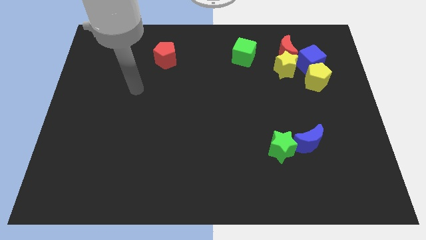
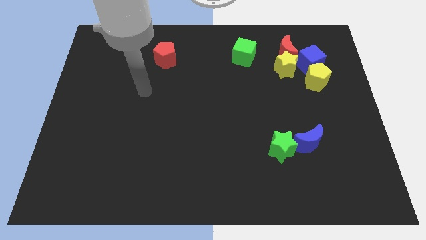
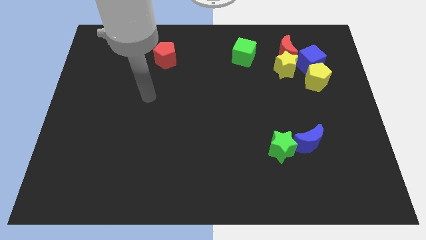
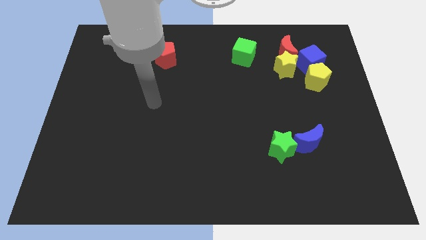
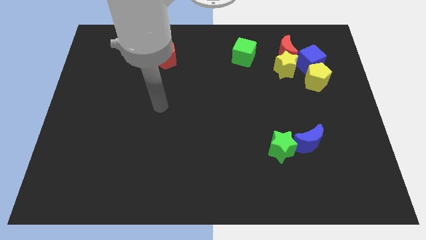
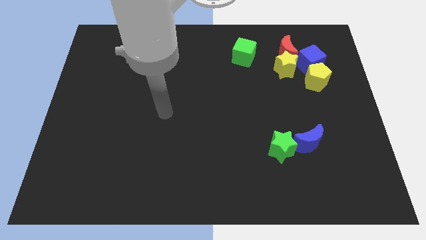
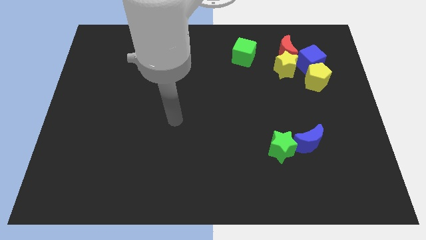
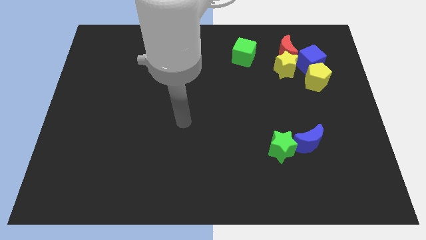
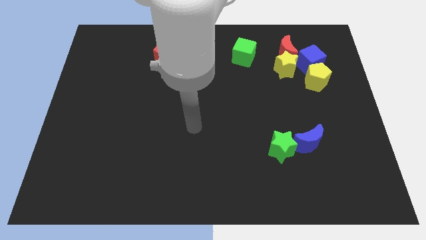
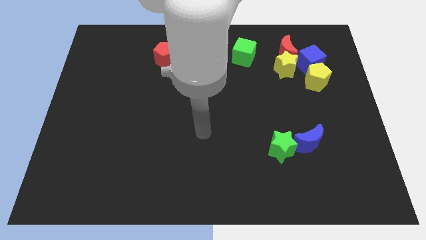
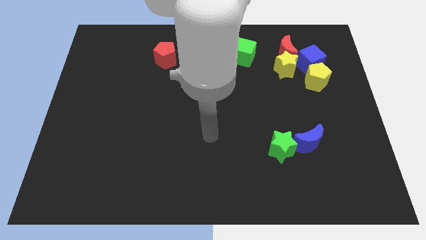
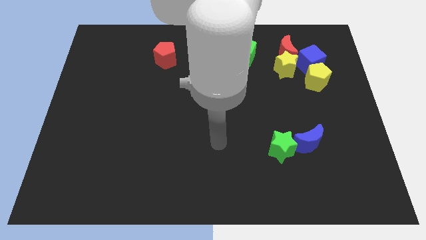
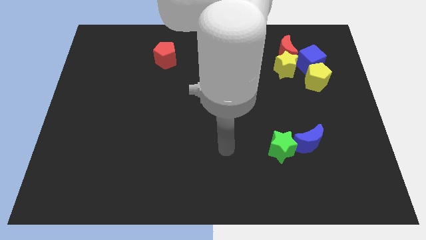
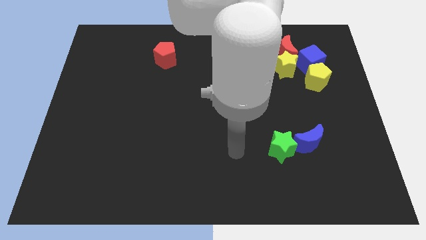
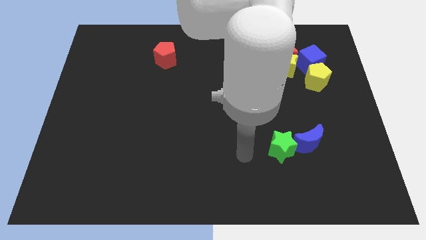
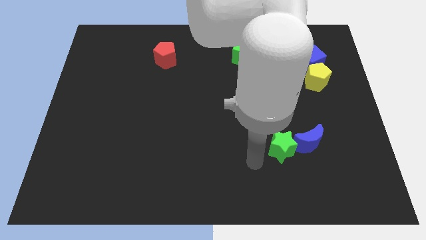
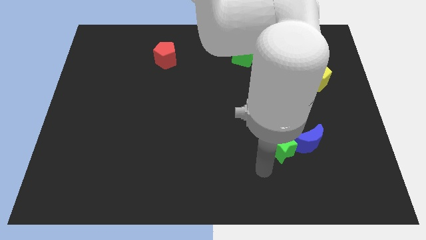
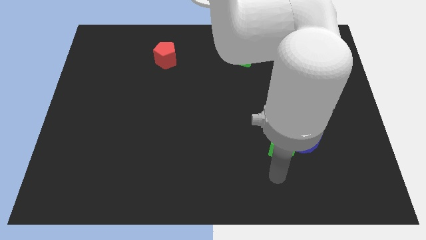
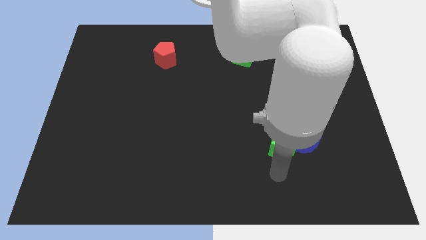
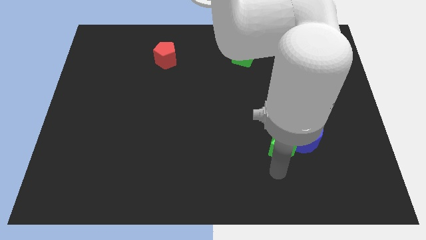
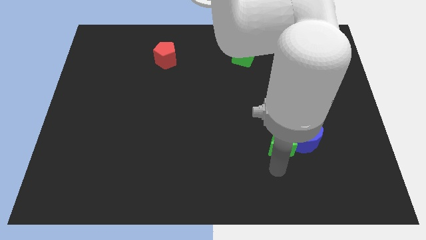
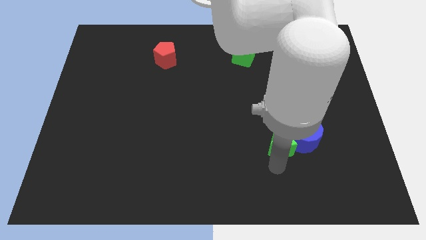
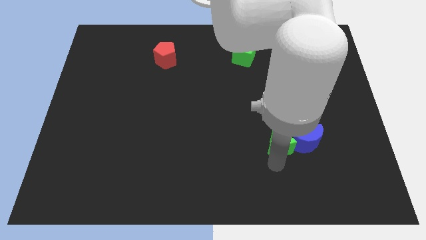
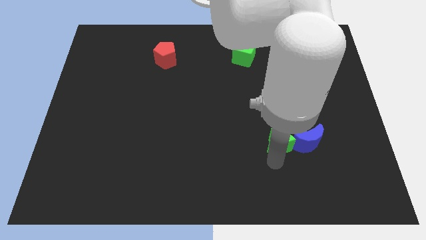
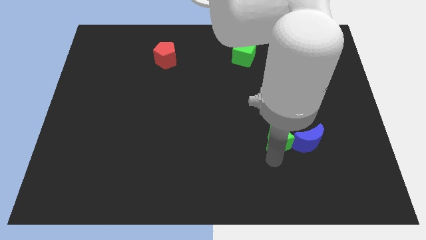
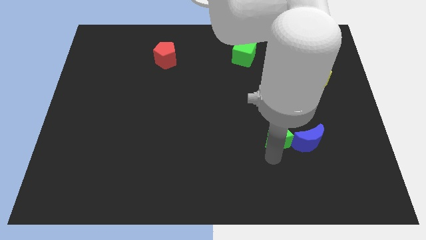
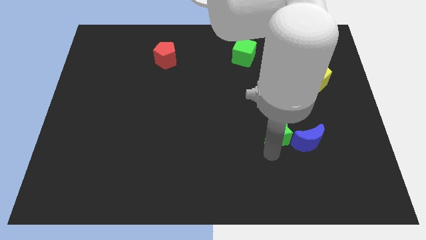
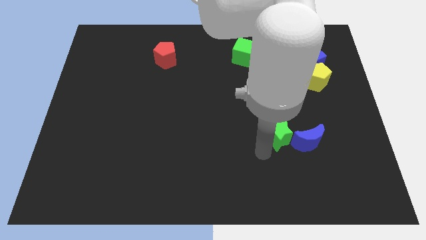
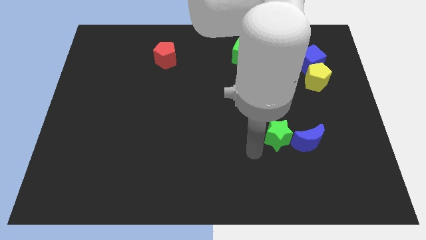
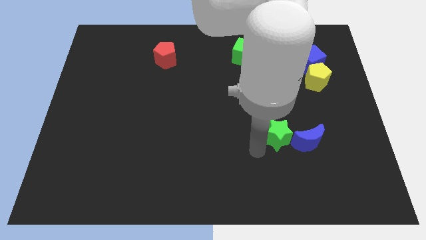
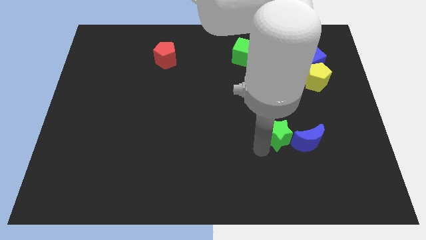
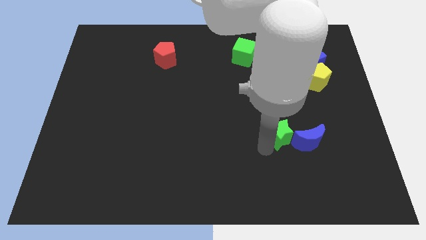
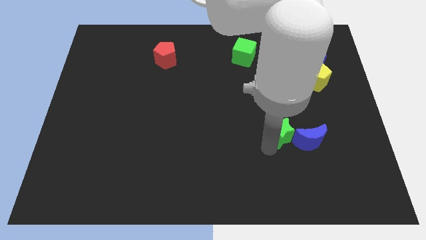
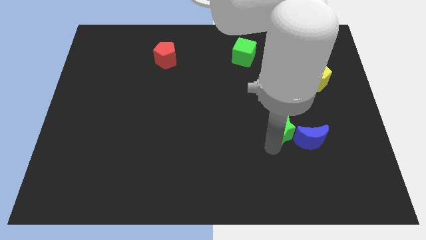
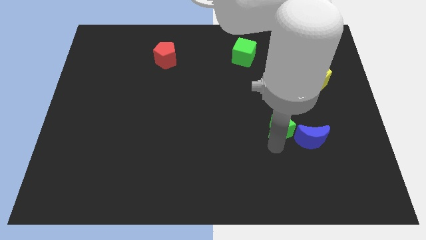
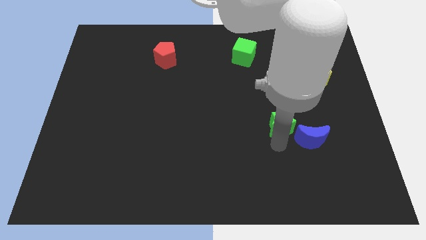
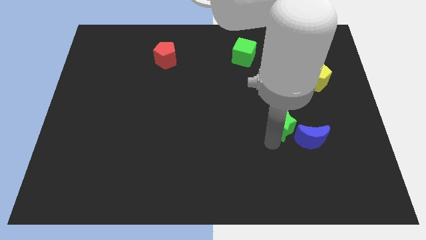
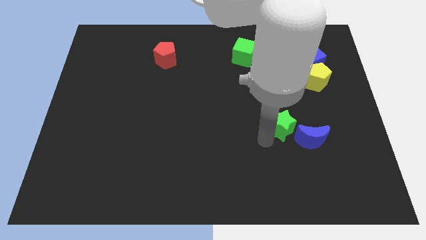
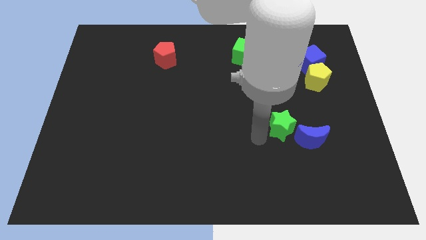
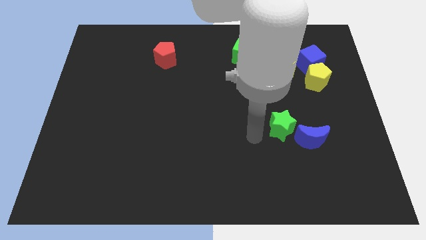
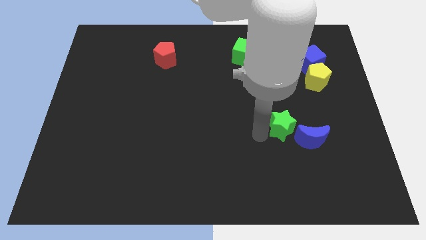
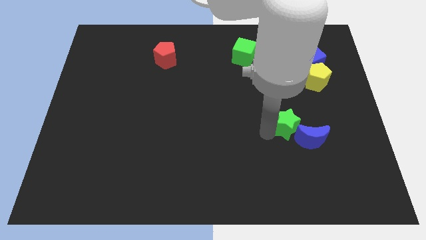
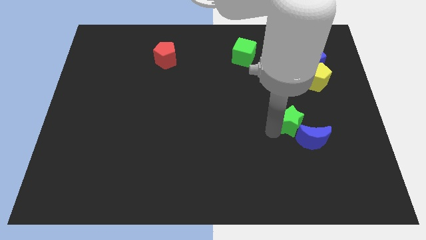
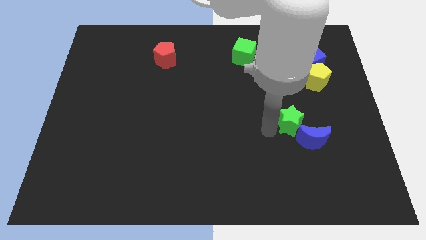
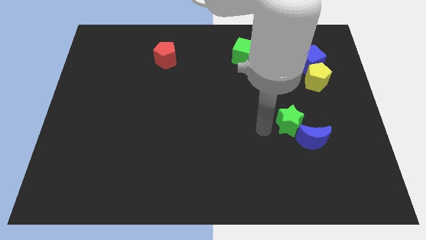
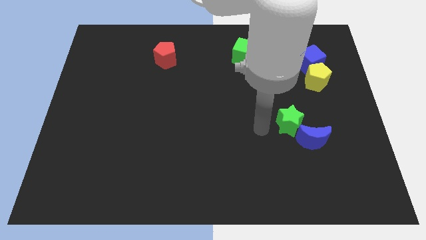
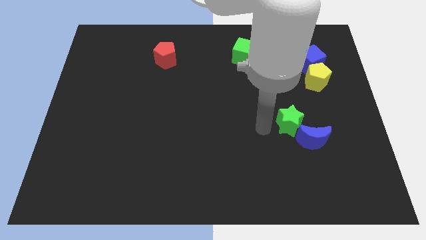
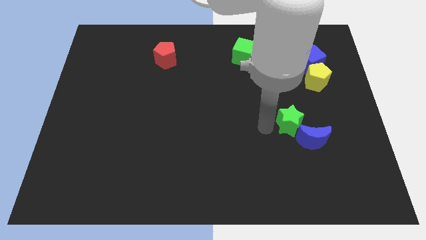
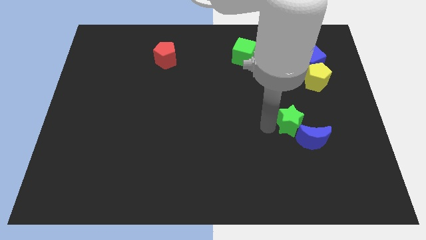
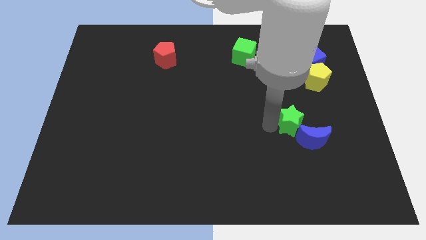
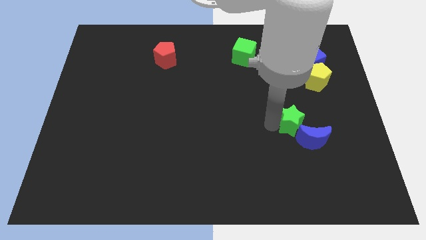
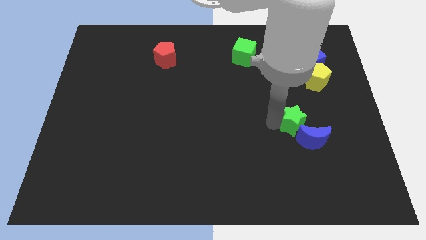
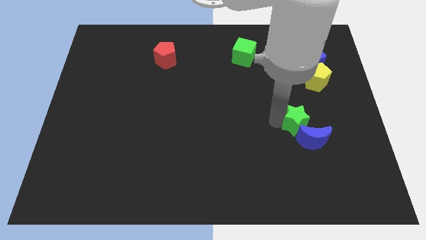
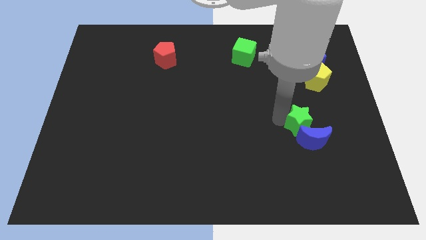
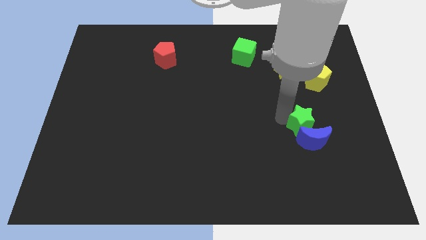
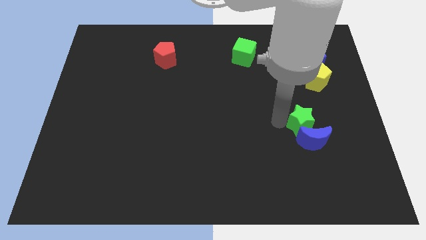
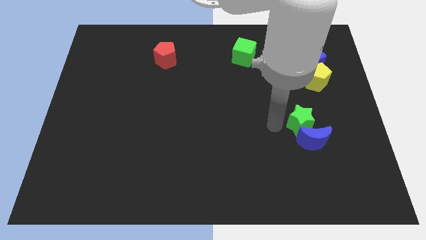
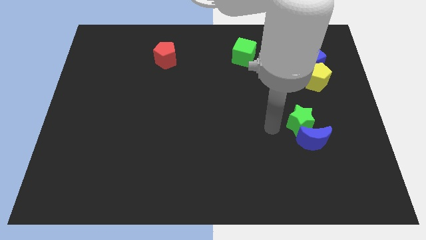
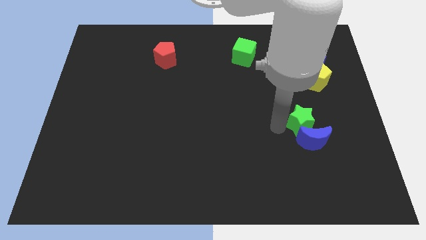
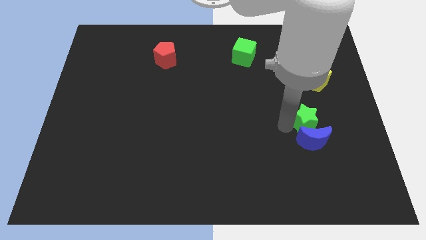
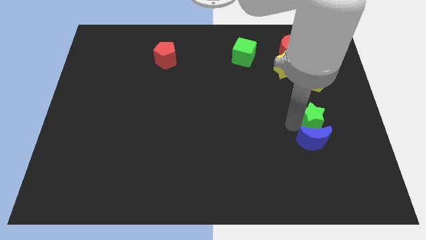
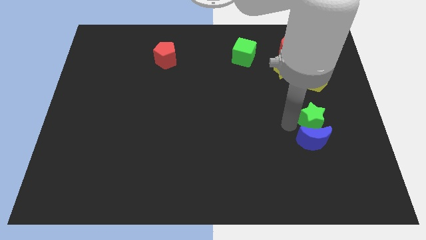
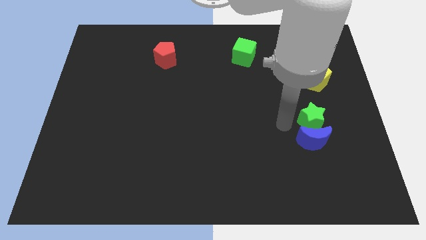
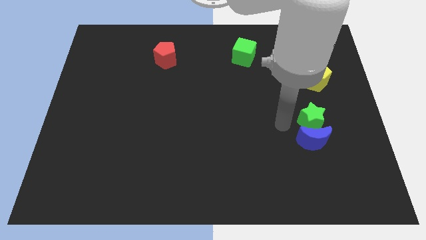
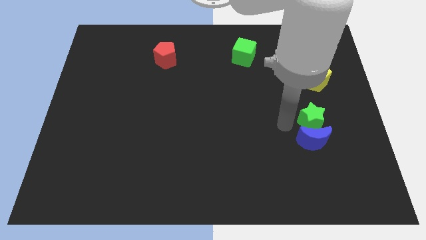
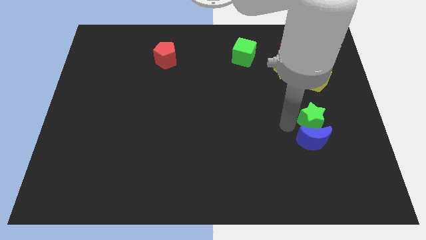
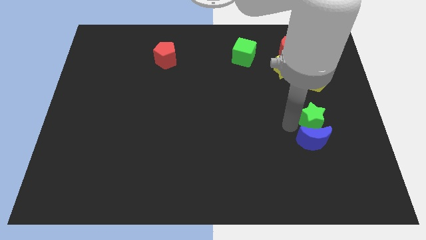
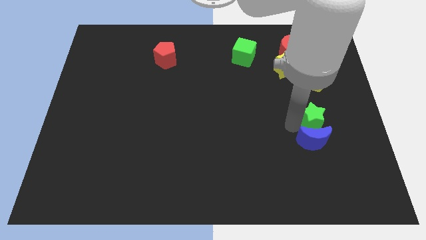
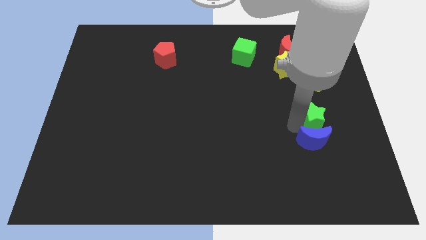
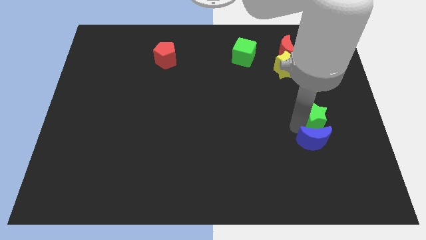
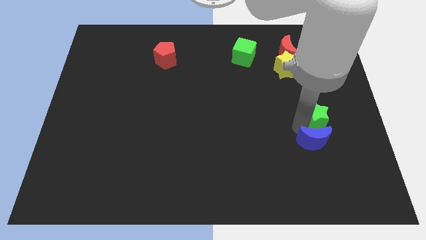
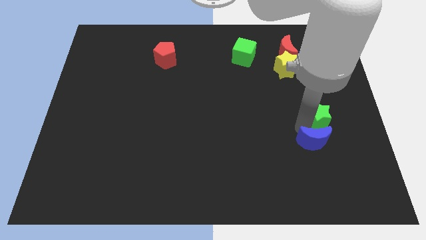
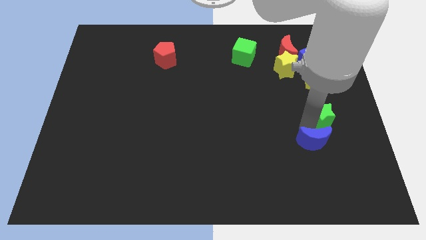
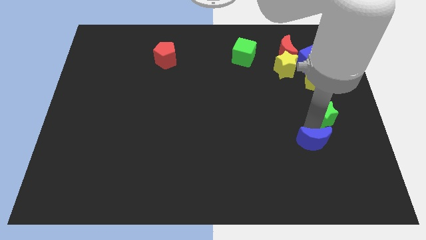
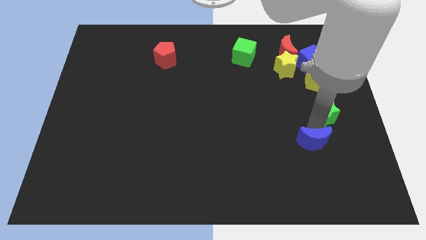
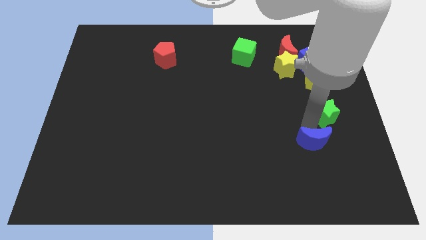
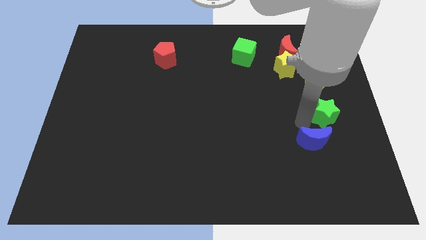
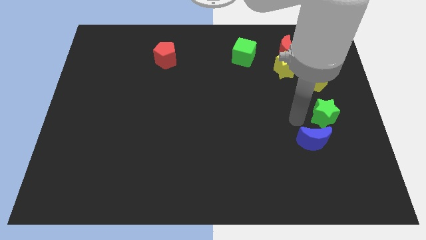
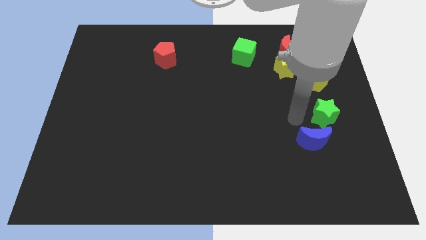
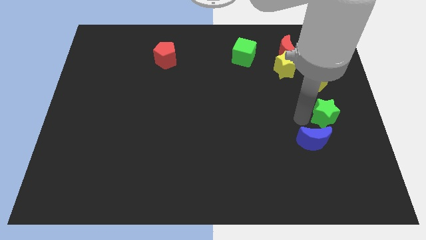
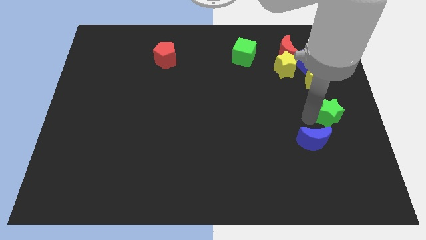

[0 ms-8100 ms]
push the green star to the center right
